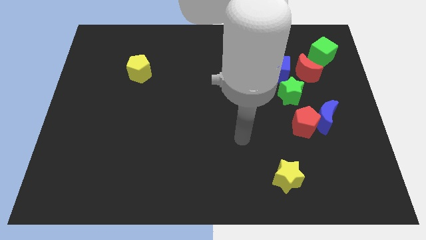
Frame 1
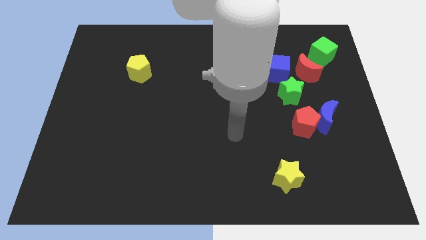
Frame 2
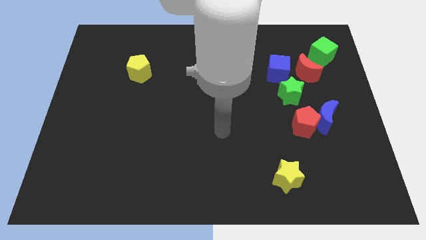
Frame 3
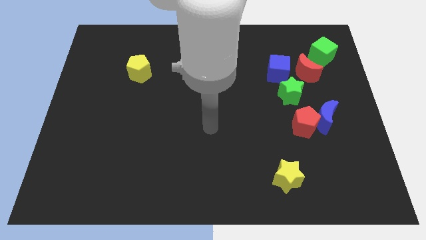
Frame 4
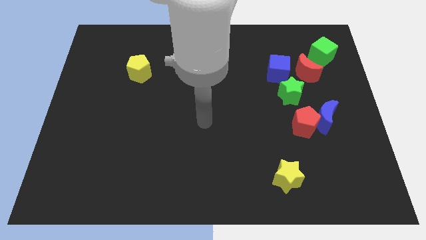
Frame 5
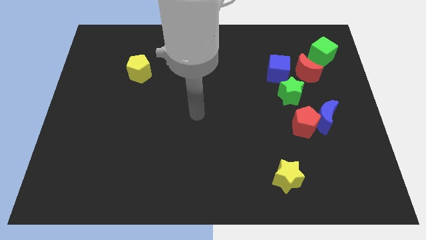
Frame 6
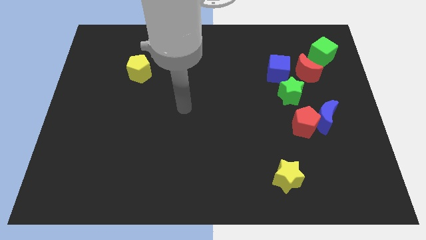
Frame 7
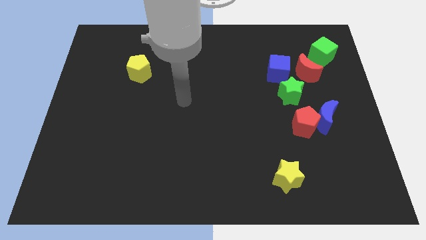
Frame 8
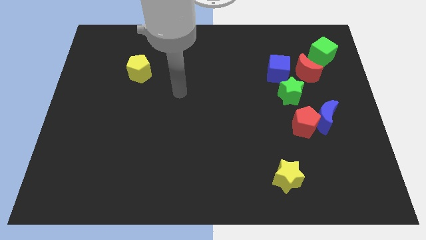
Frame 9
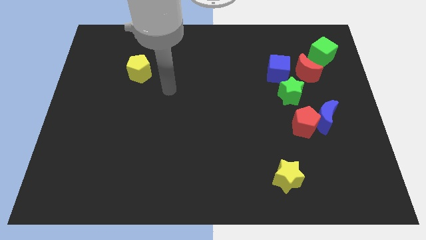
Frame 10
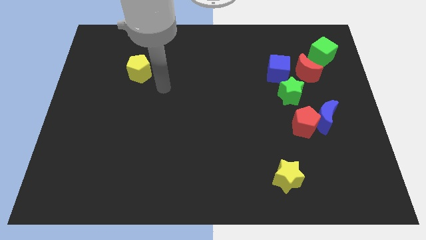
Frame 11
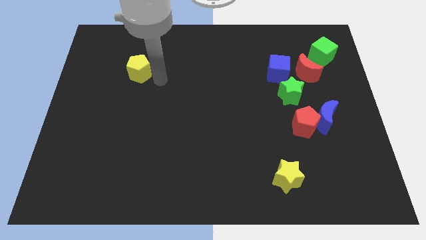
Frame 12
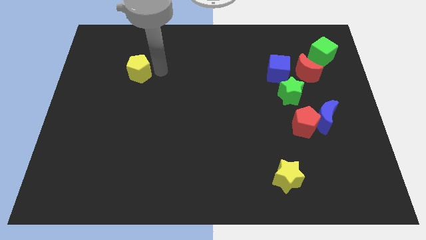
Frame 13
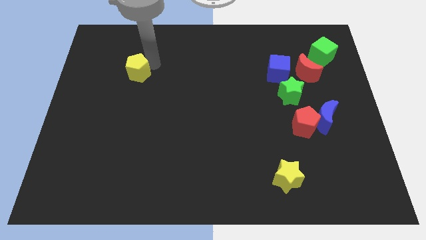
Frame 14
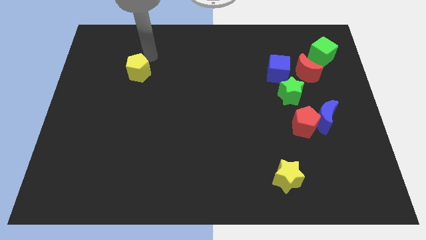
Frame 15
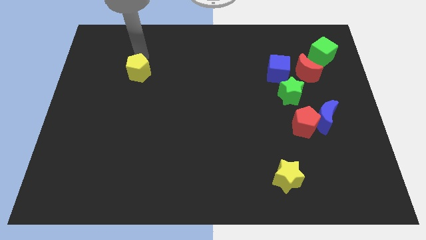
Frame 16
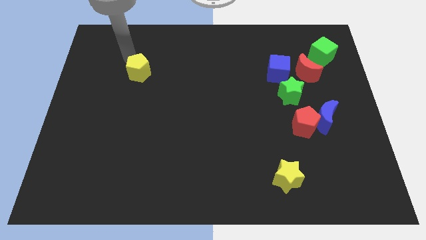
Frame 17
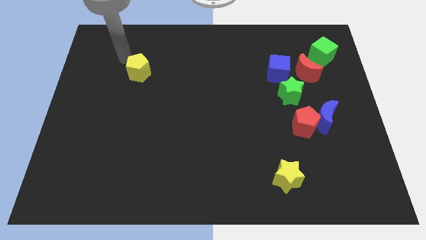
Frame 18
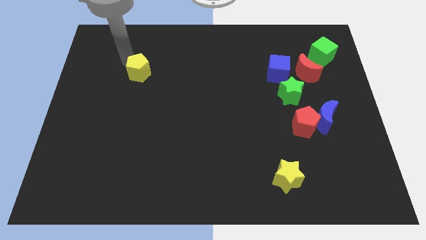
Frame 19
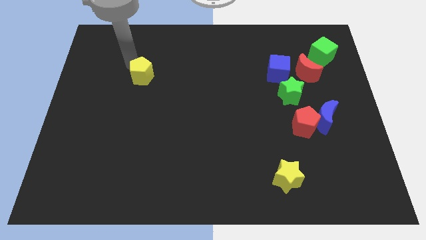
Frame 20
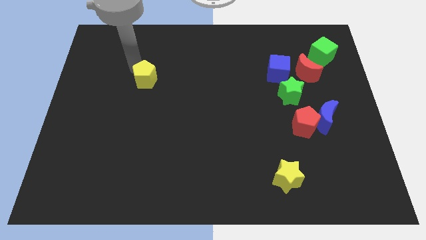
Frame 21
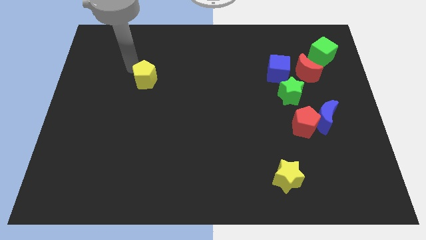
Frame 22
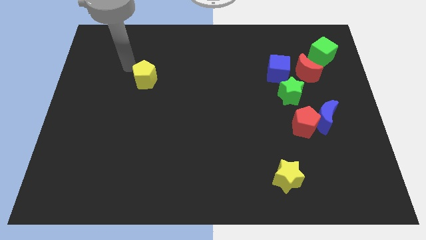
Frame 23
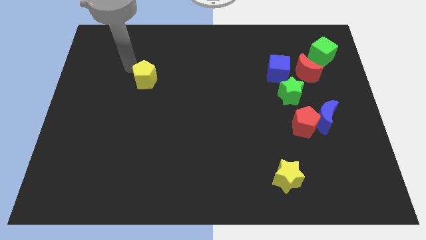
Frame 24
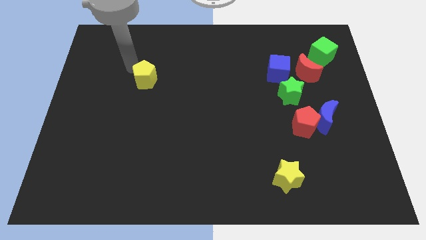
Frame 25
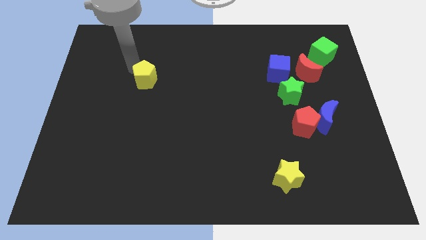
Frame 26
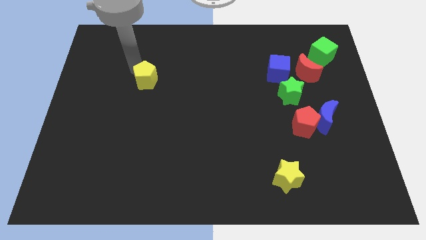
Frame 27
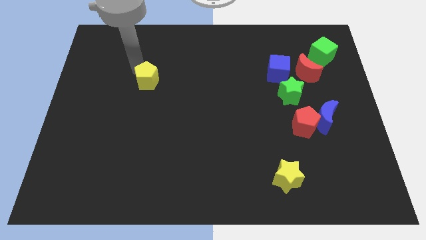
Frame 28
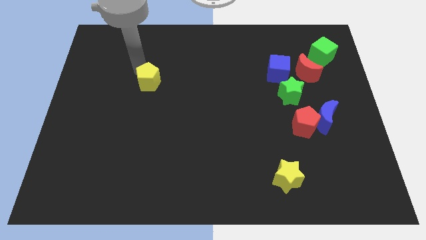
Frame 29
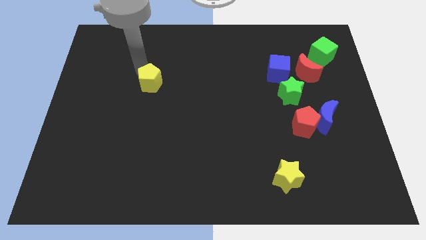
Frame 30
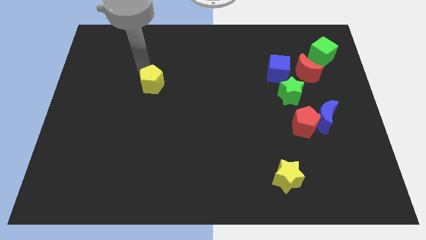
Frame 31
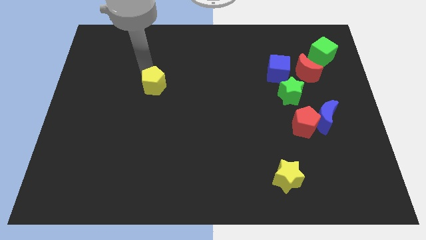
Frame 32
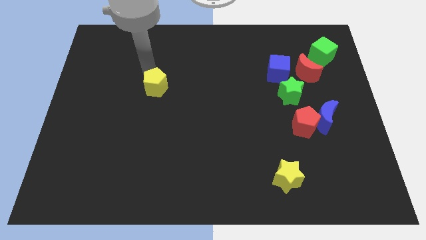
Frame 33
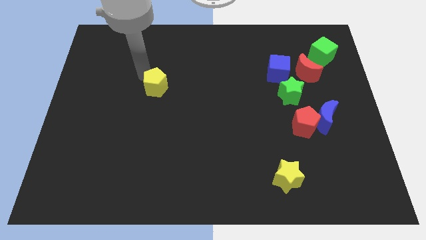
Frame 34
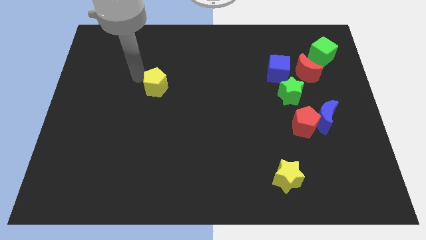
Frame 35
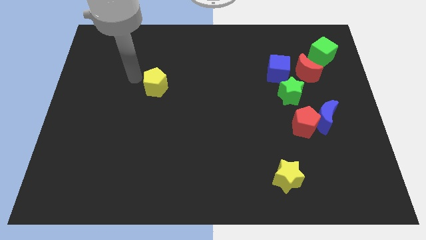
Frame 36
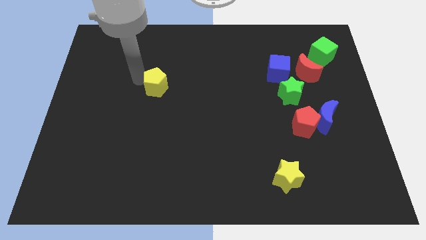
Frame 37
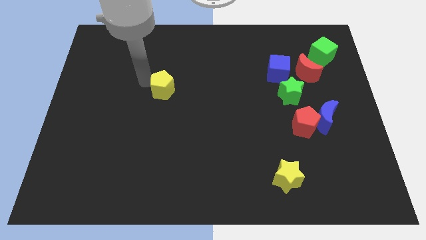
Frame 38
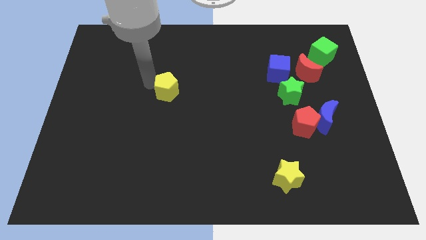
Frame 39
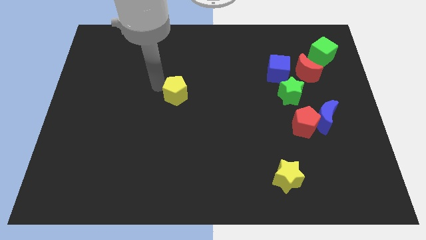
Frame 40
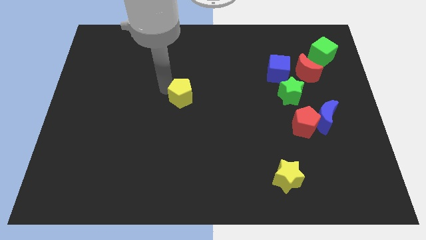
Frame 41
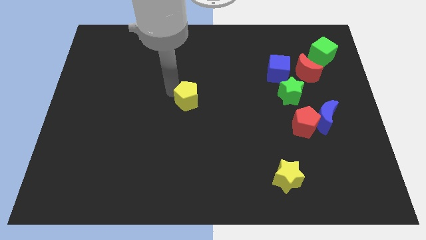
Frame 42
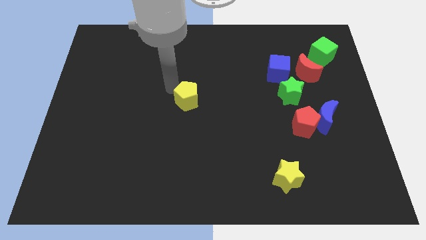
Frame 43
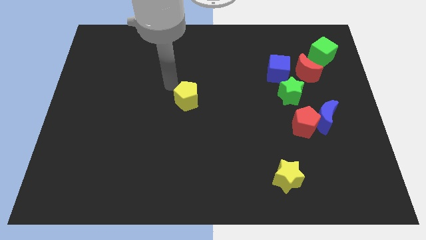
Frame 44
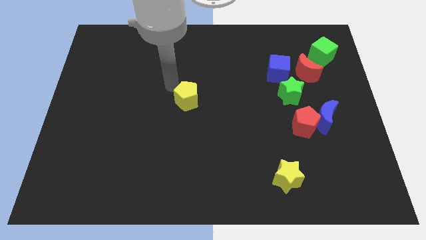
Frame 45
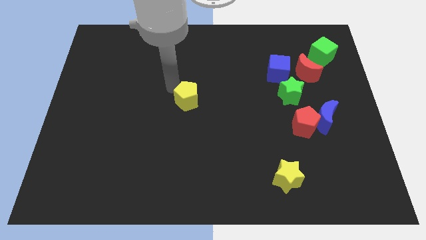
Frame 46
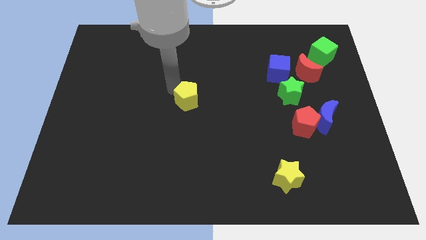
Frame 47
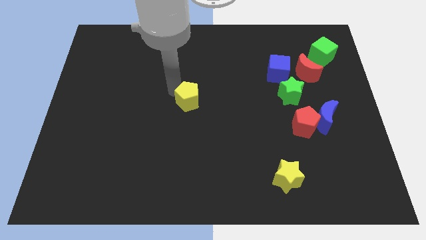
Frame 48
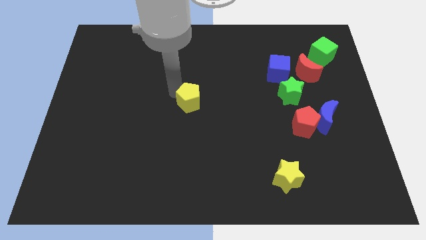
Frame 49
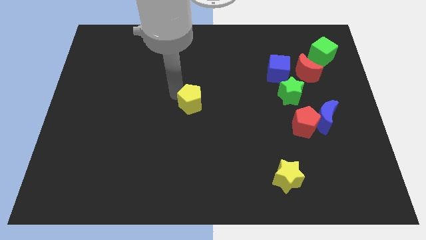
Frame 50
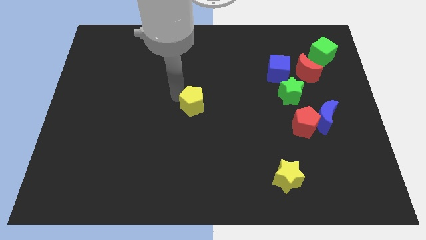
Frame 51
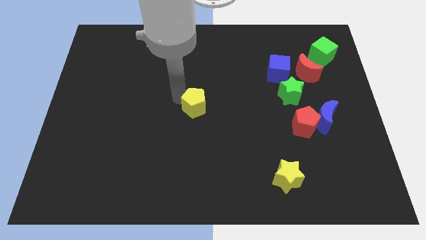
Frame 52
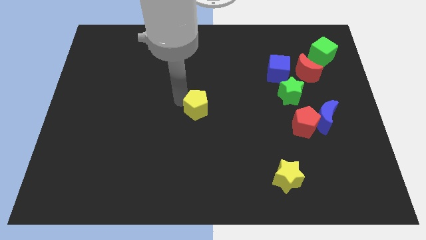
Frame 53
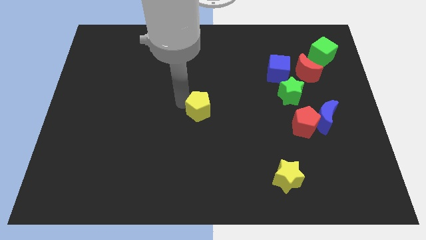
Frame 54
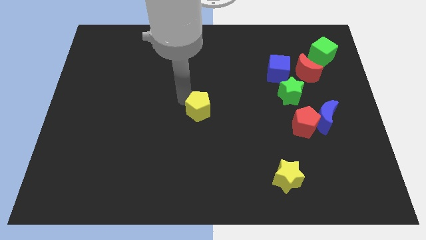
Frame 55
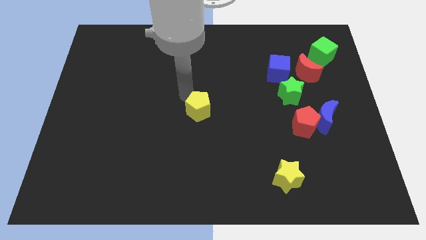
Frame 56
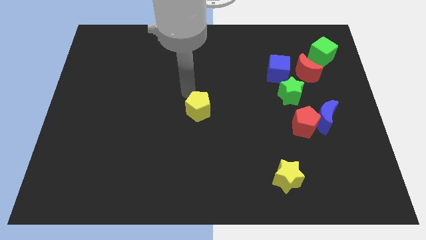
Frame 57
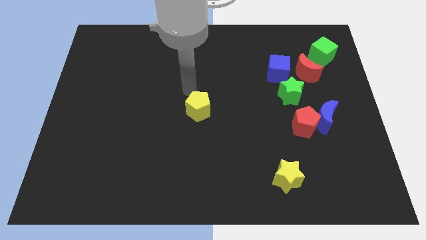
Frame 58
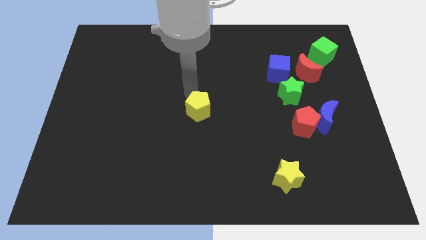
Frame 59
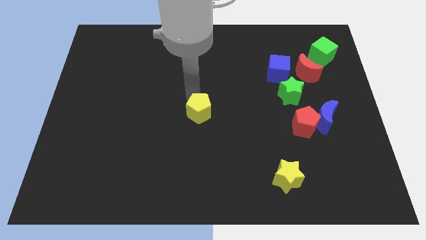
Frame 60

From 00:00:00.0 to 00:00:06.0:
push the yellow pentagon downwards and then to the right

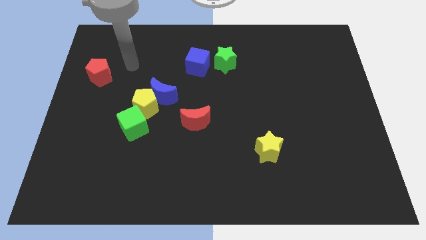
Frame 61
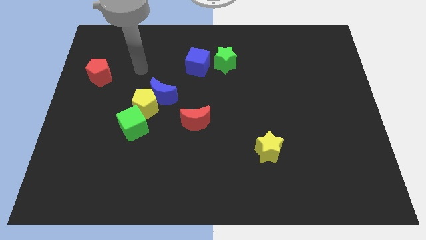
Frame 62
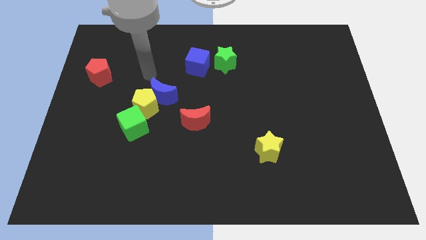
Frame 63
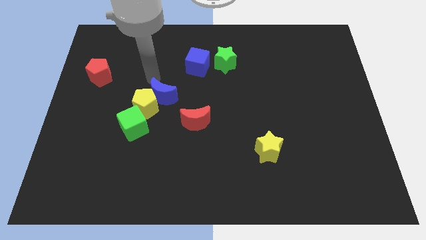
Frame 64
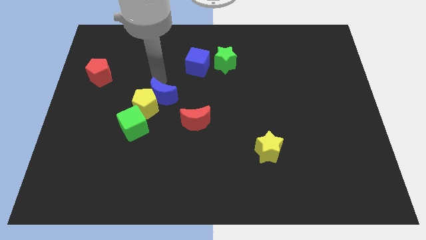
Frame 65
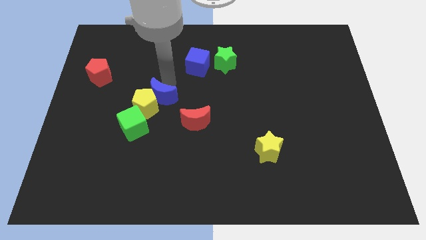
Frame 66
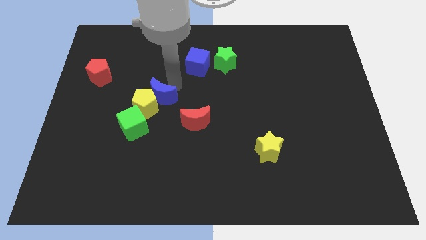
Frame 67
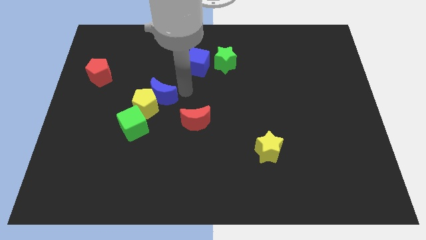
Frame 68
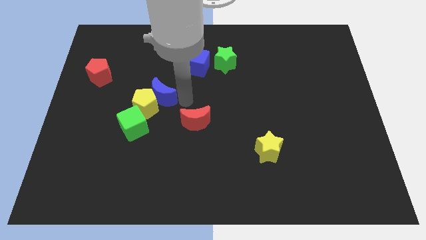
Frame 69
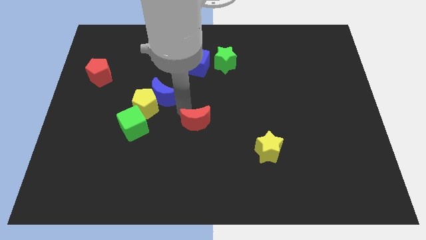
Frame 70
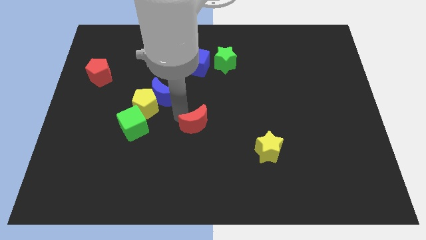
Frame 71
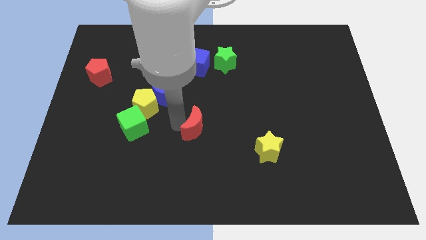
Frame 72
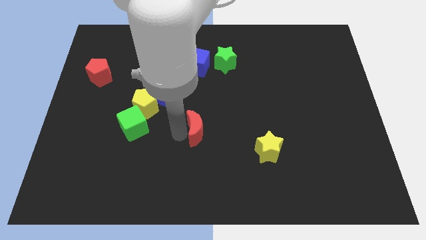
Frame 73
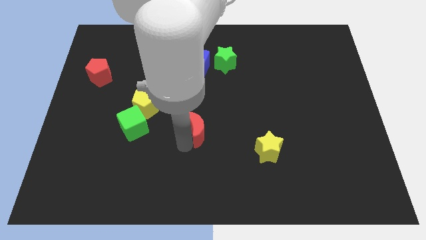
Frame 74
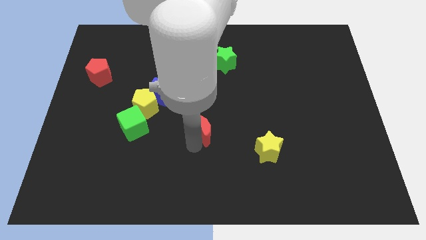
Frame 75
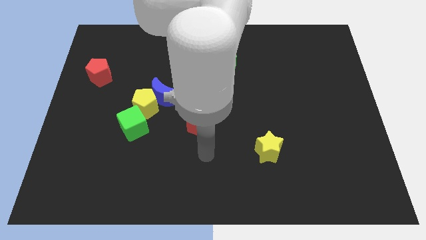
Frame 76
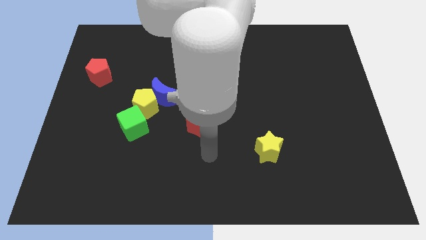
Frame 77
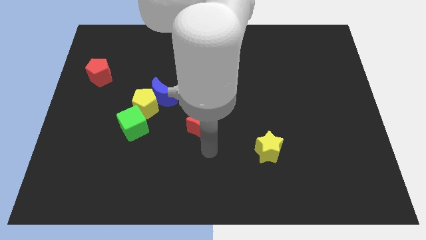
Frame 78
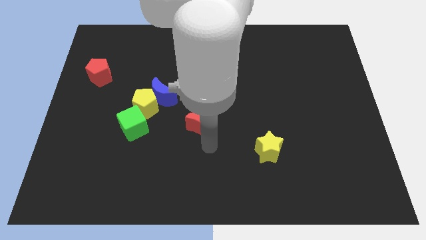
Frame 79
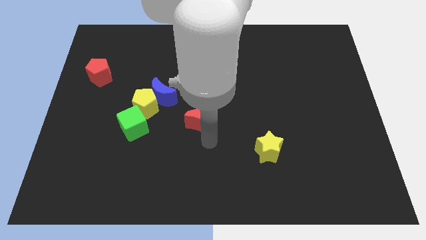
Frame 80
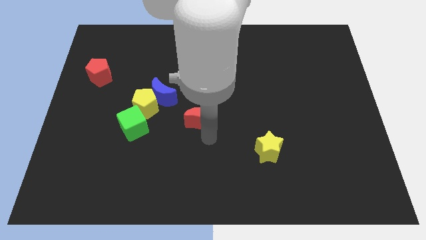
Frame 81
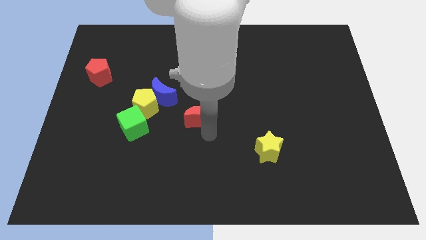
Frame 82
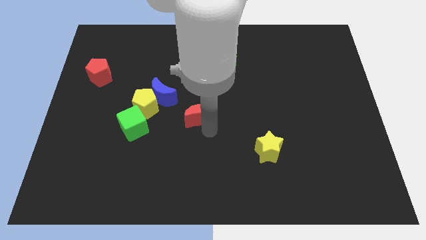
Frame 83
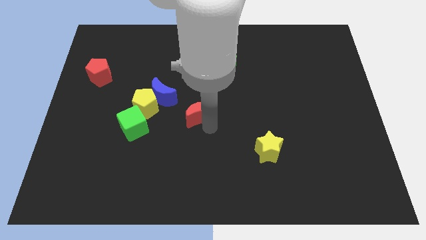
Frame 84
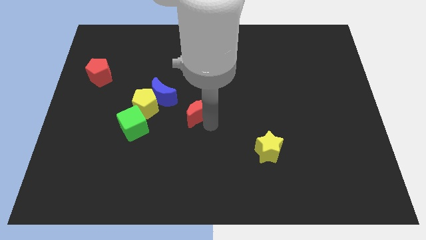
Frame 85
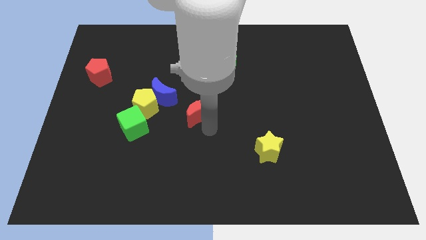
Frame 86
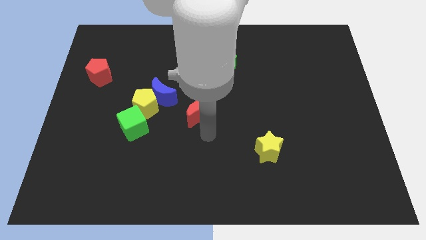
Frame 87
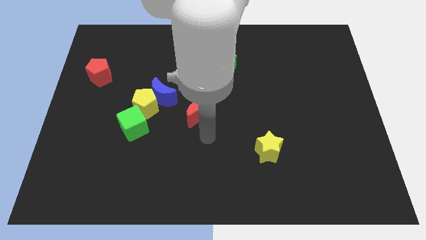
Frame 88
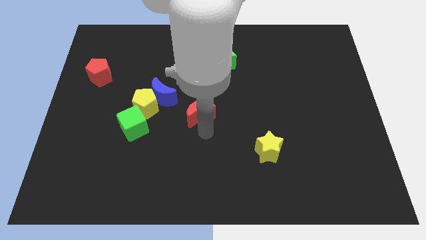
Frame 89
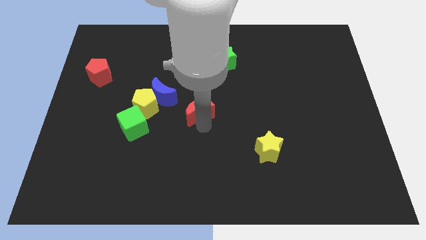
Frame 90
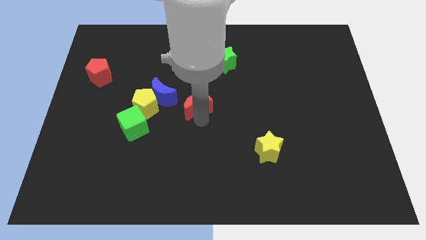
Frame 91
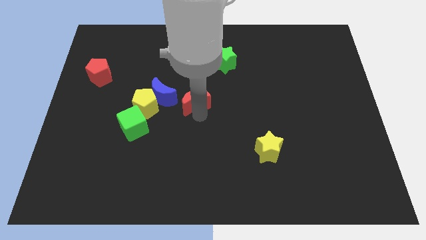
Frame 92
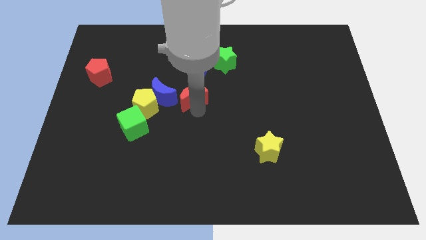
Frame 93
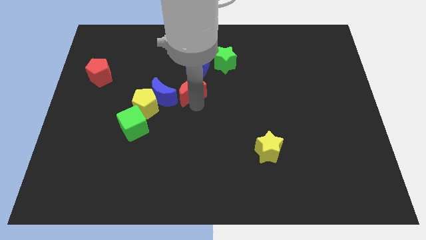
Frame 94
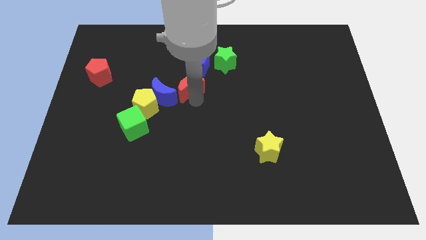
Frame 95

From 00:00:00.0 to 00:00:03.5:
slide the red moon upwards and left somewhat
